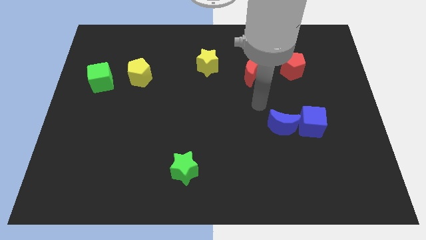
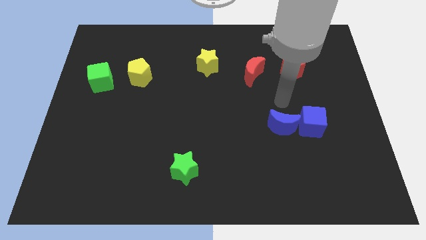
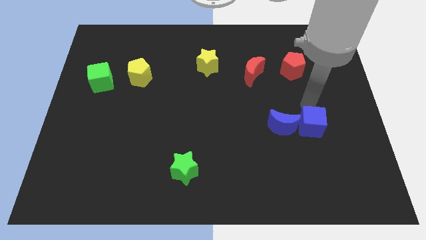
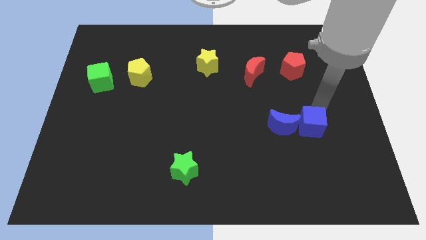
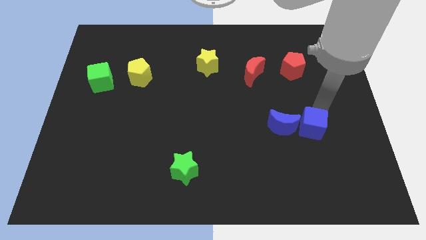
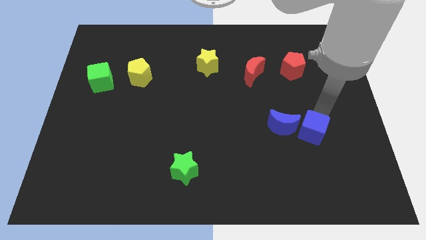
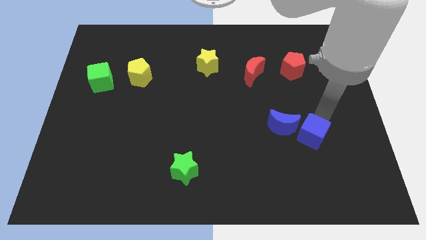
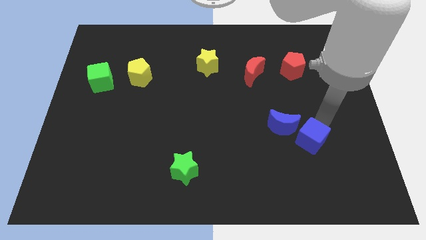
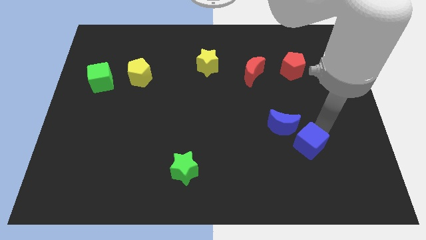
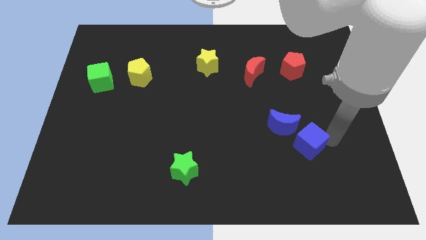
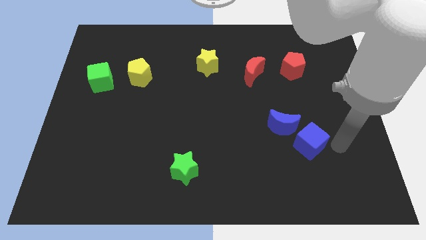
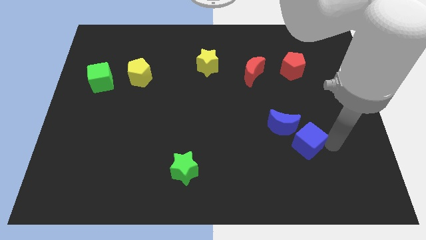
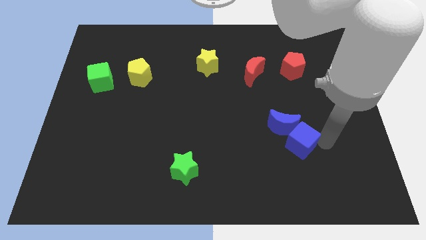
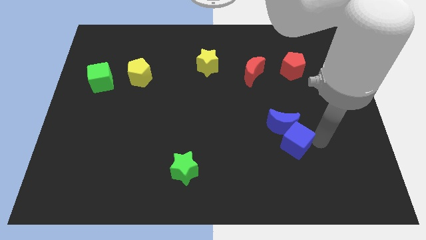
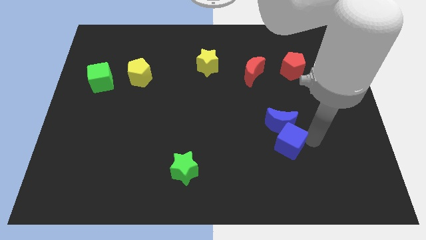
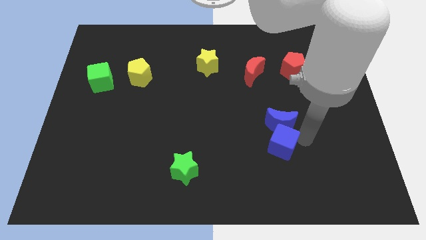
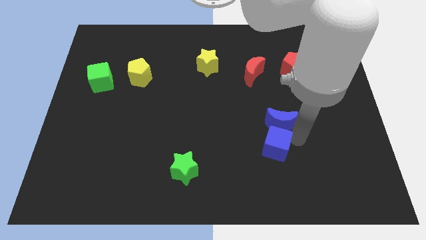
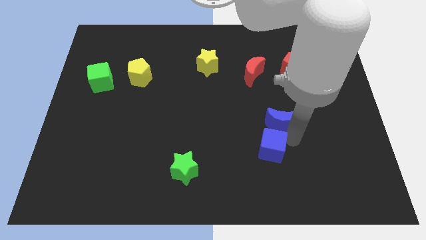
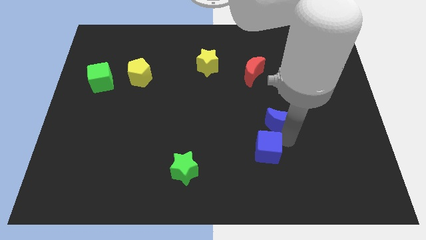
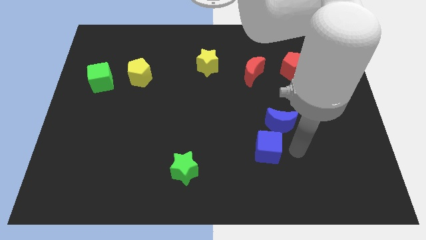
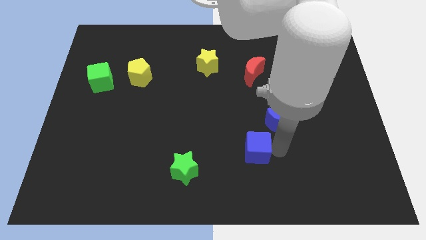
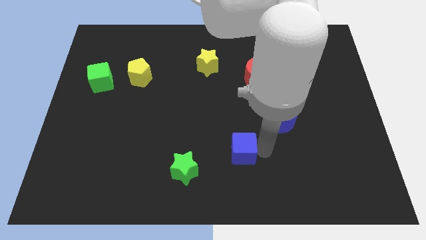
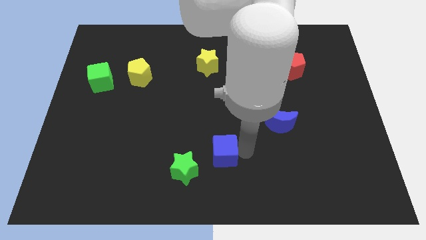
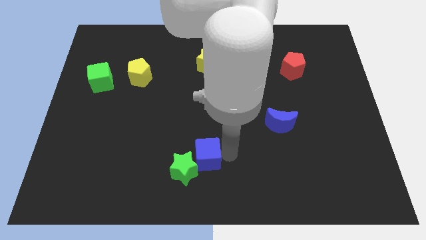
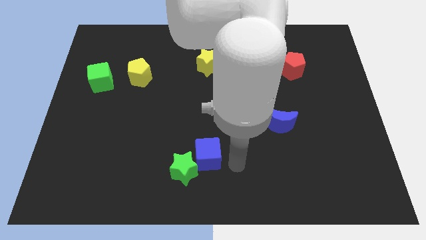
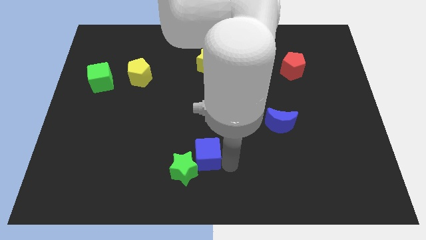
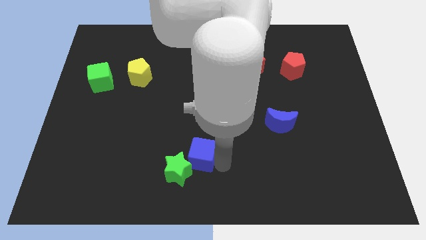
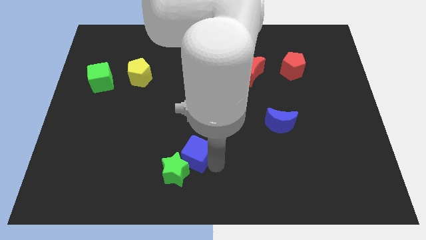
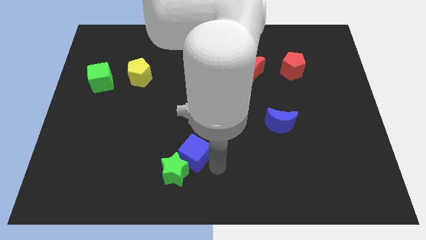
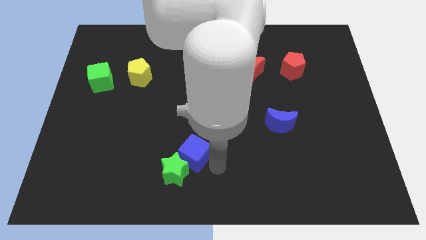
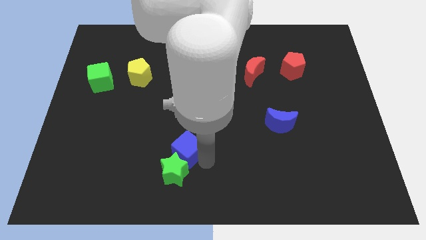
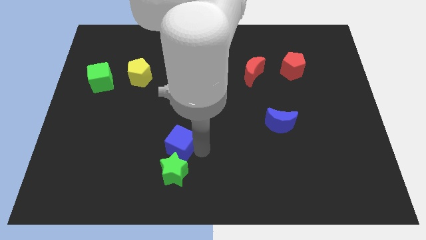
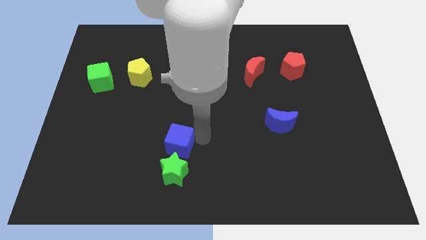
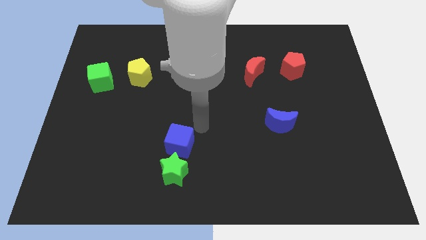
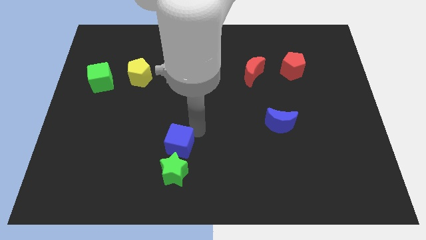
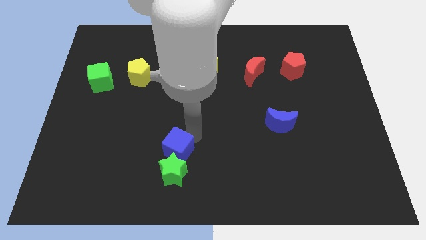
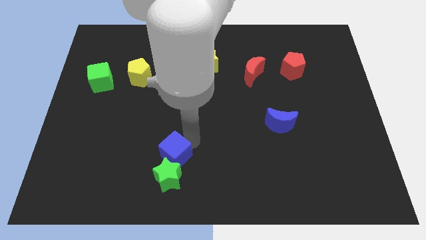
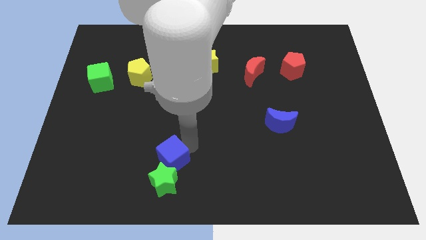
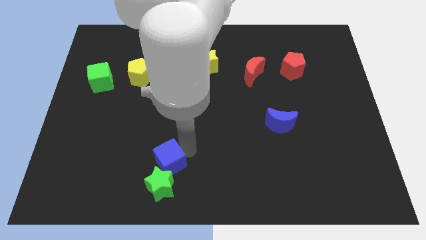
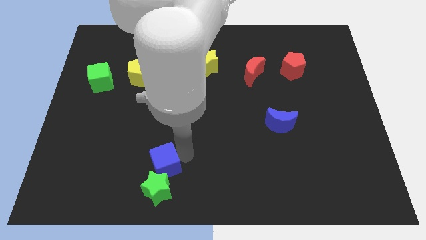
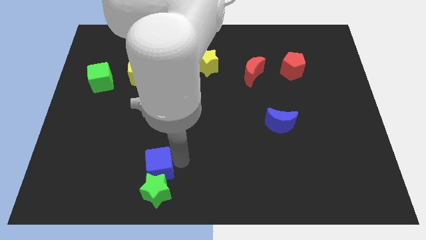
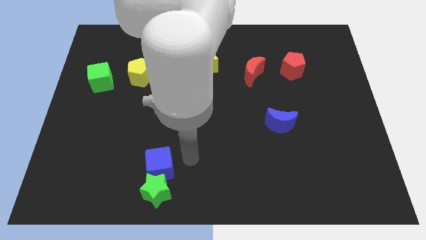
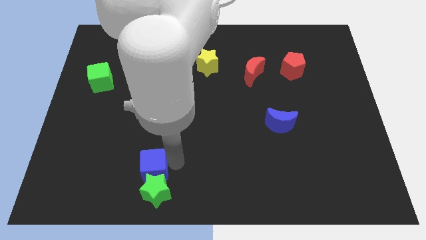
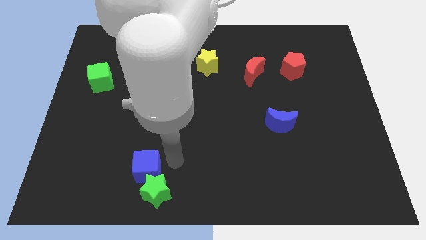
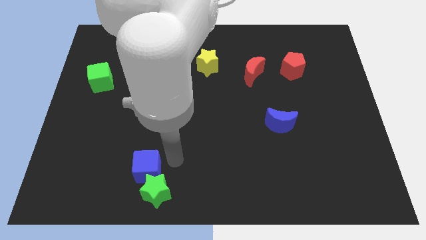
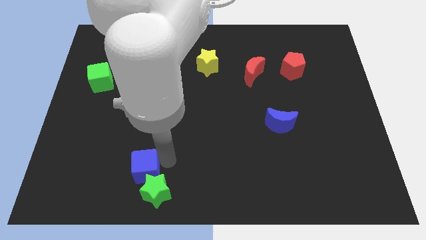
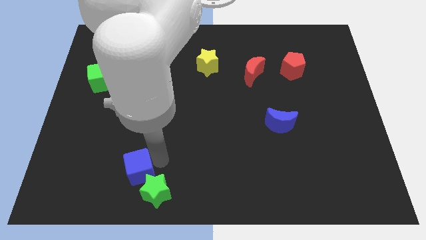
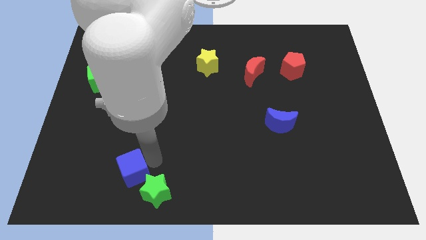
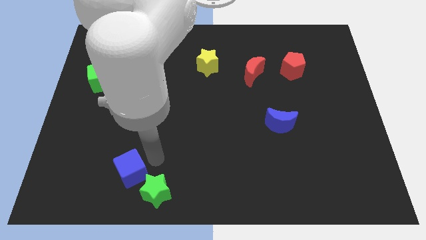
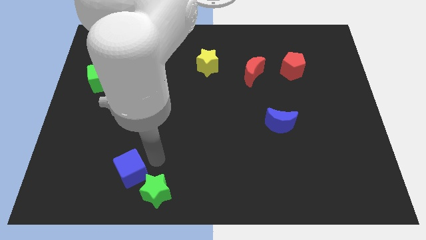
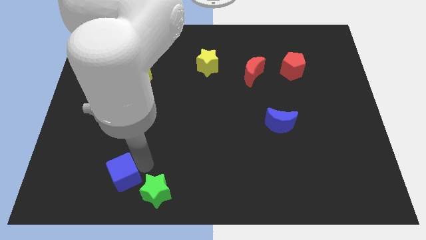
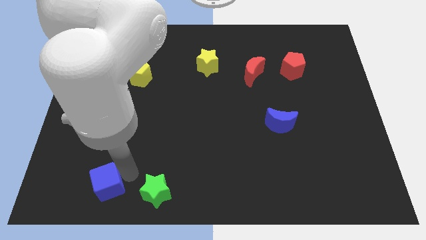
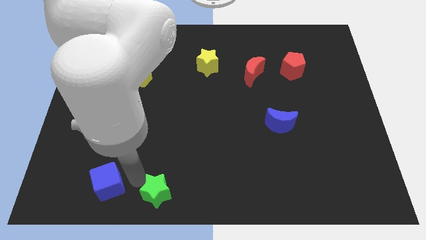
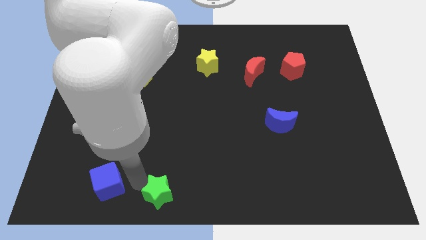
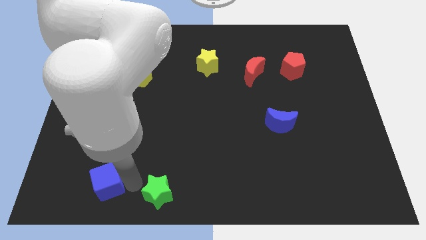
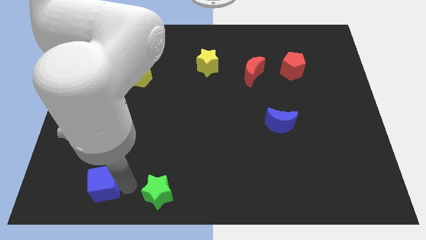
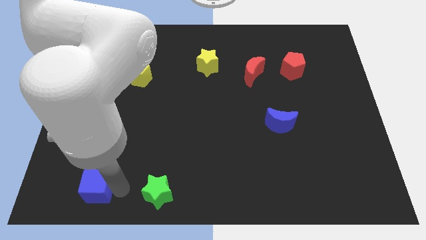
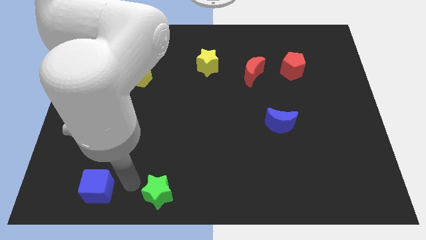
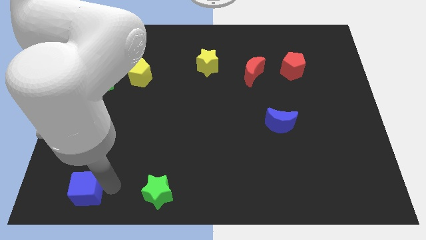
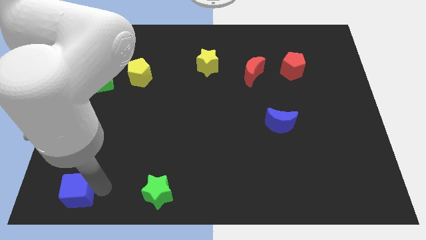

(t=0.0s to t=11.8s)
slide the blue cube to the bottom left corner

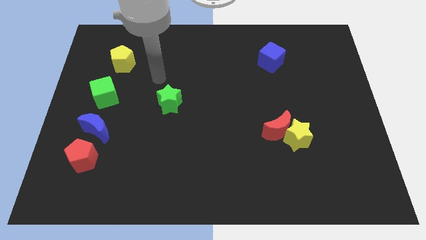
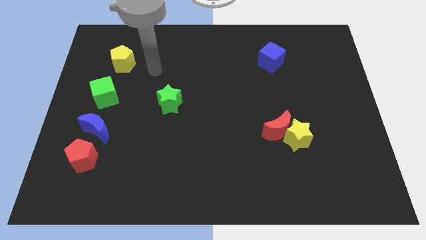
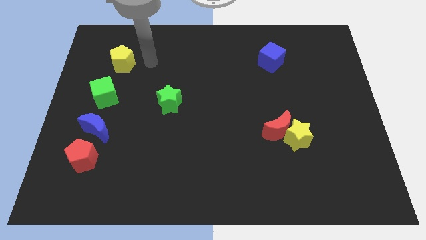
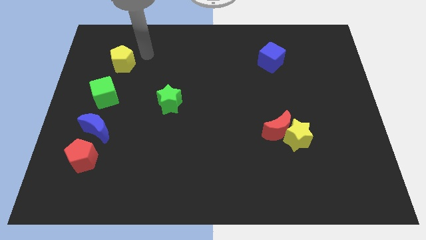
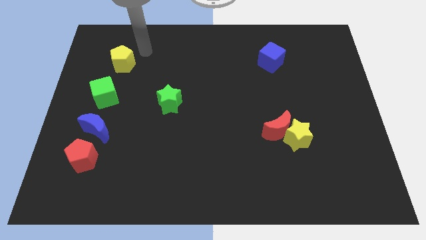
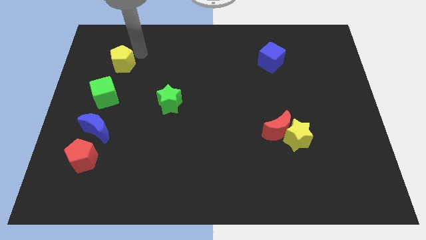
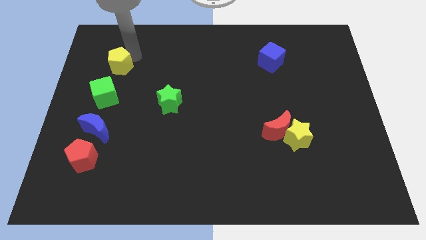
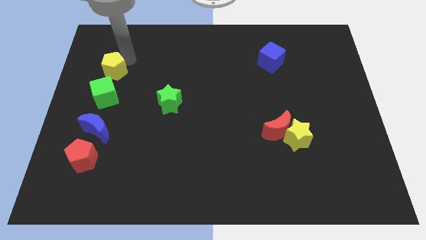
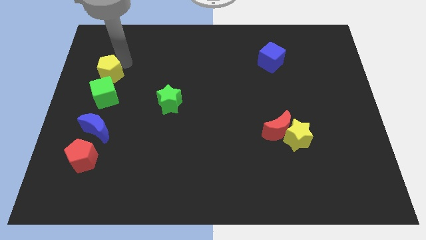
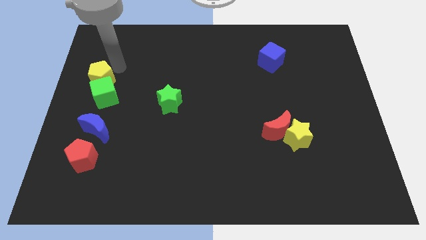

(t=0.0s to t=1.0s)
put the yellow pentagon to the left side of the board

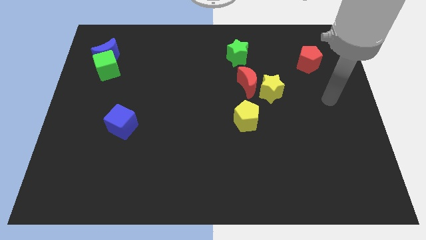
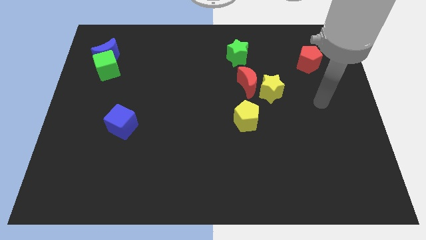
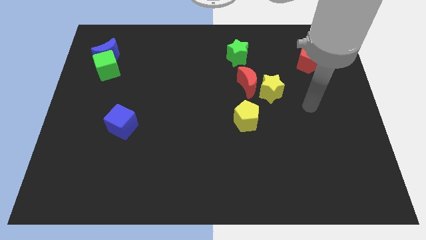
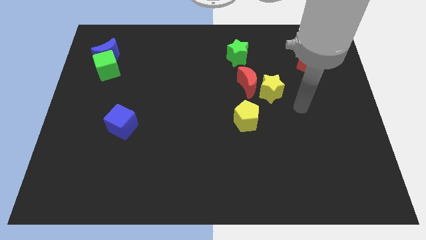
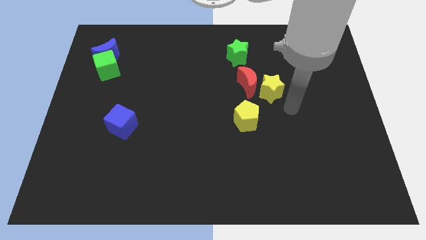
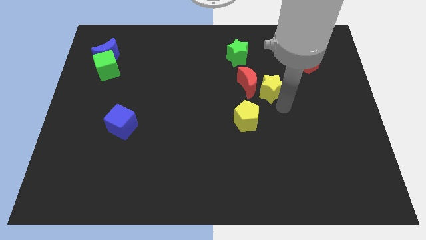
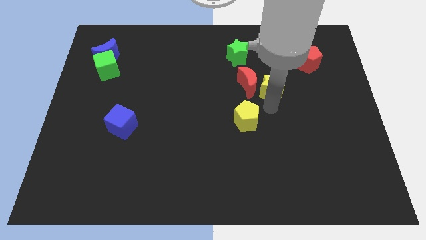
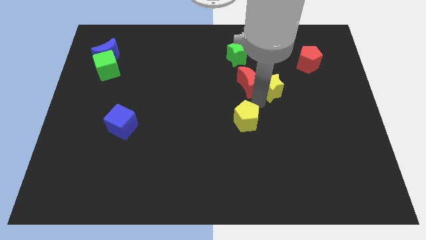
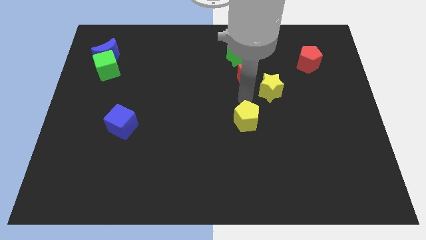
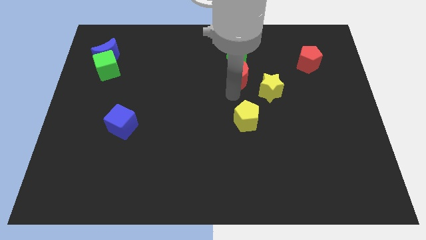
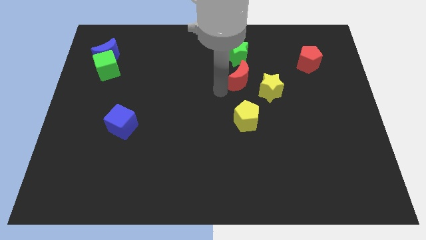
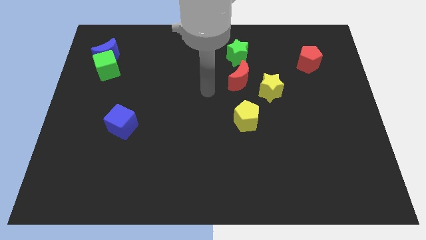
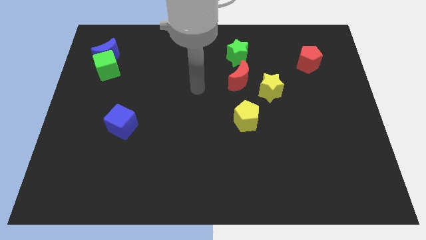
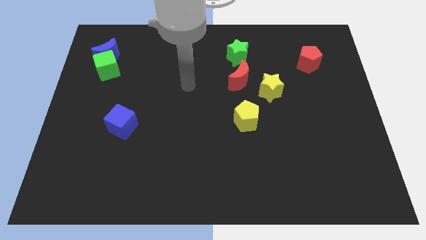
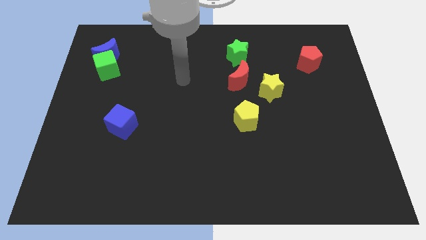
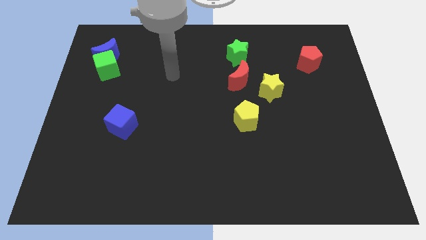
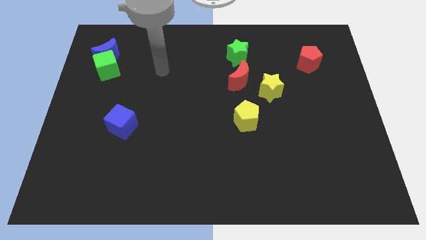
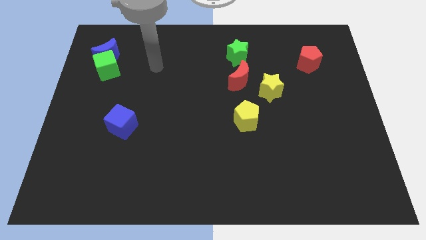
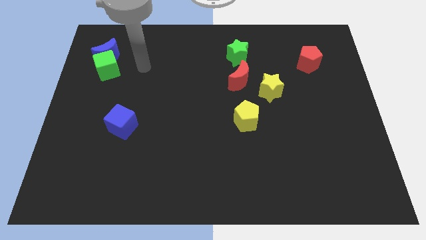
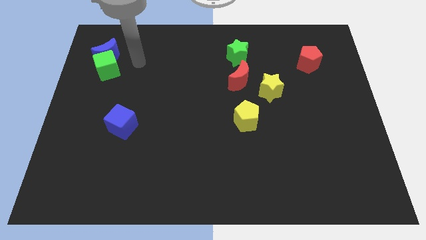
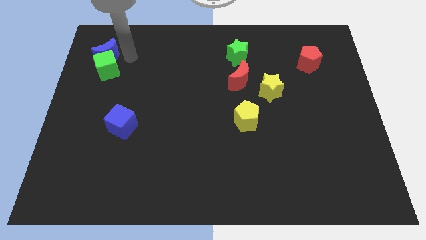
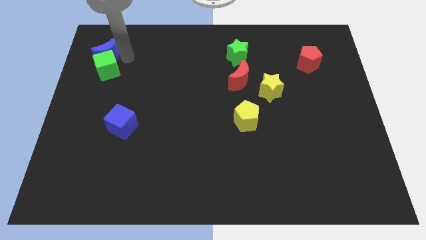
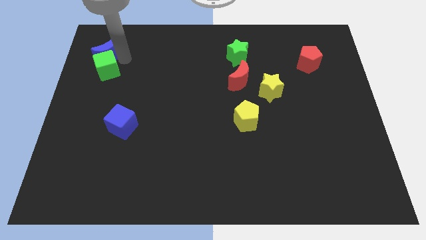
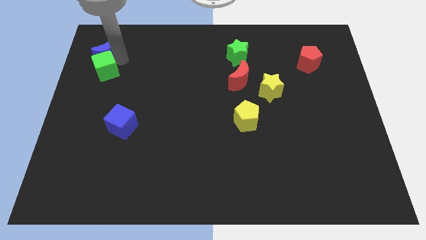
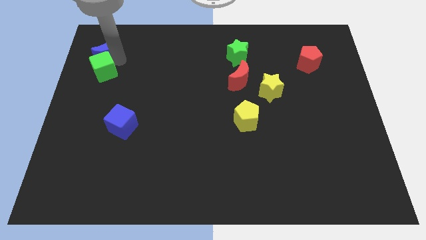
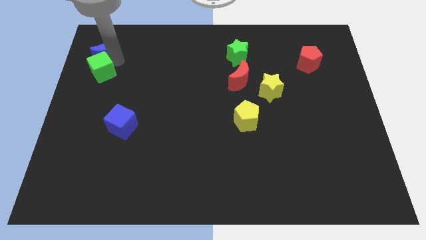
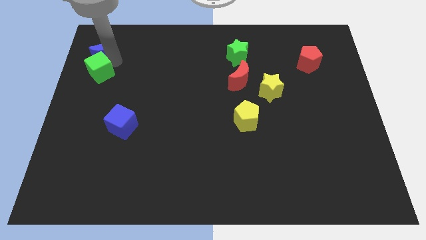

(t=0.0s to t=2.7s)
put the green cube to the center left
